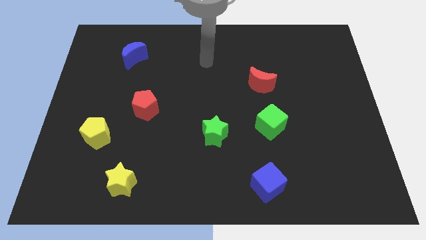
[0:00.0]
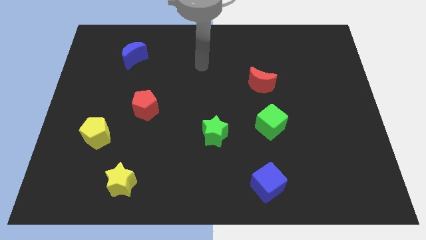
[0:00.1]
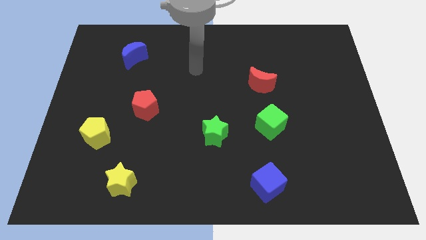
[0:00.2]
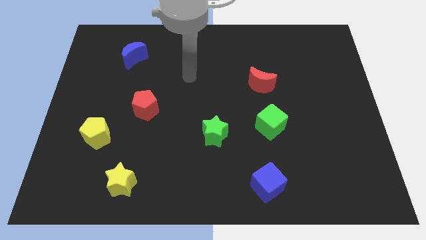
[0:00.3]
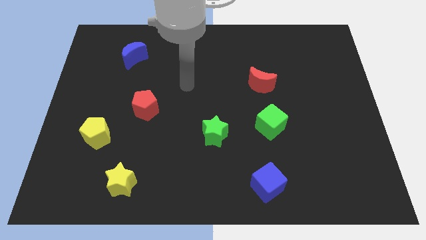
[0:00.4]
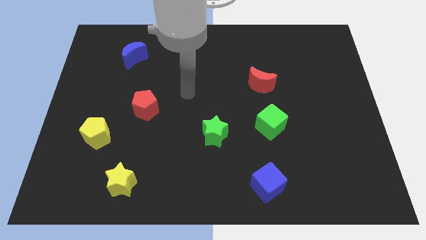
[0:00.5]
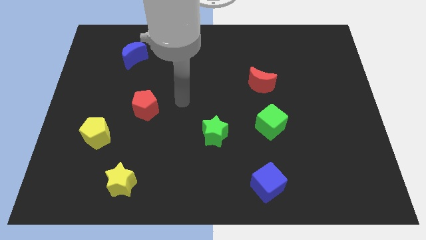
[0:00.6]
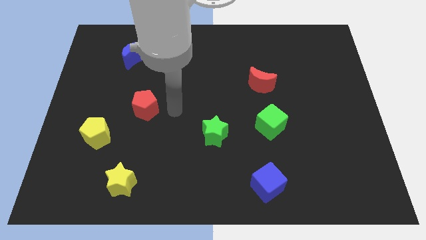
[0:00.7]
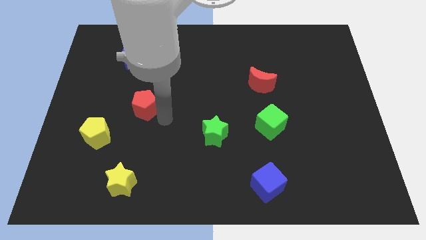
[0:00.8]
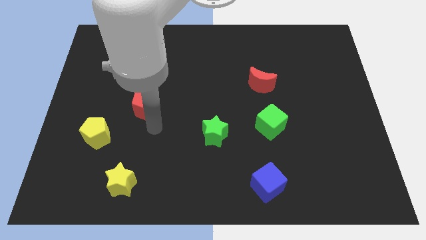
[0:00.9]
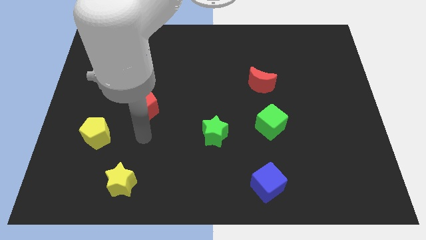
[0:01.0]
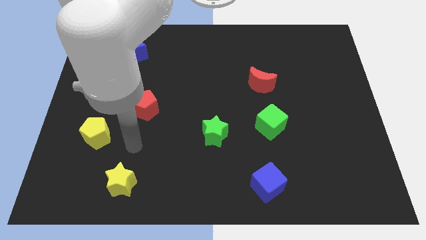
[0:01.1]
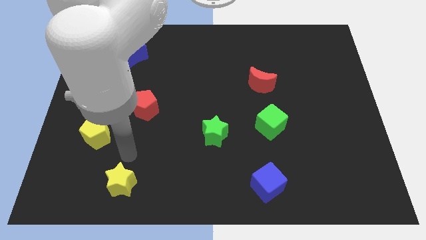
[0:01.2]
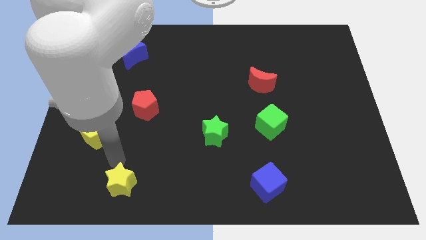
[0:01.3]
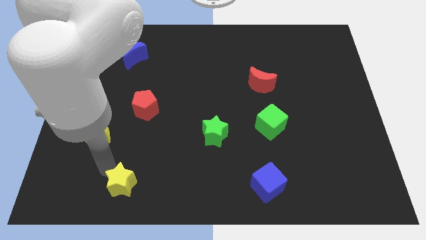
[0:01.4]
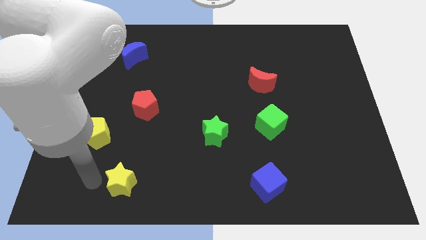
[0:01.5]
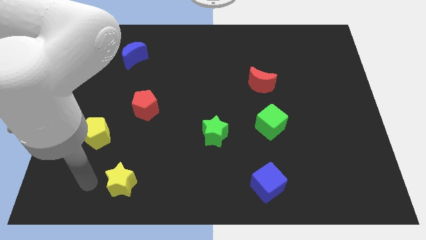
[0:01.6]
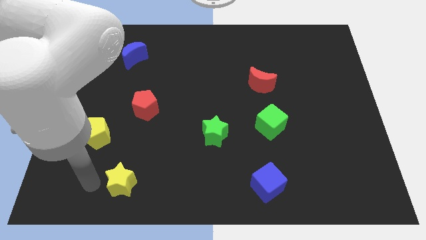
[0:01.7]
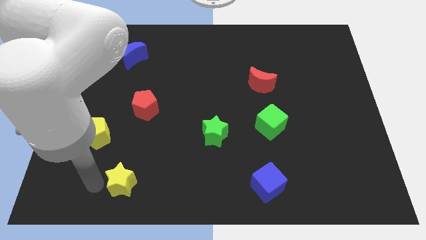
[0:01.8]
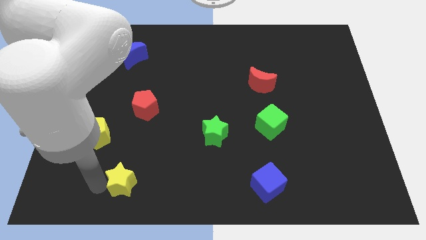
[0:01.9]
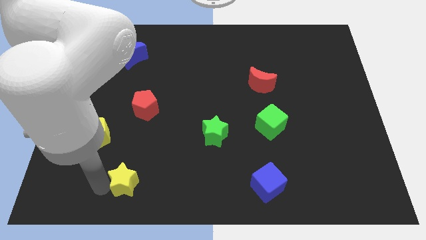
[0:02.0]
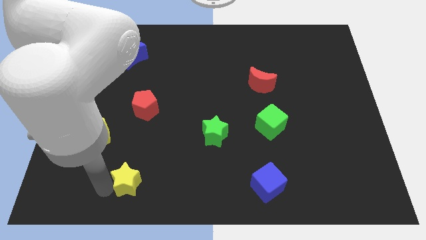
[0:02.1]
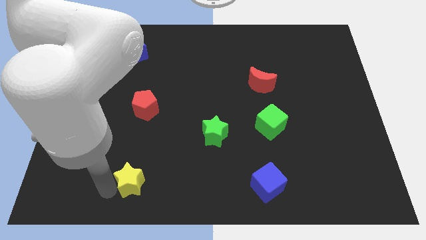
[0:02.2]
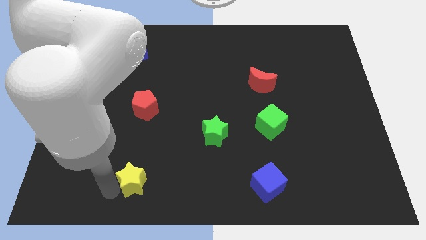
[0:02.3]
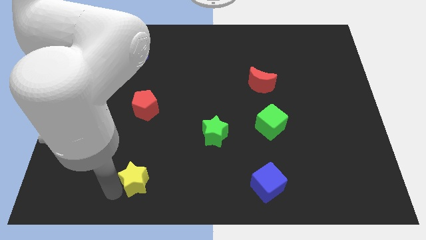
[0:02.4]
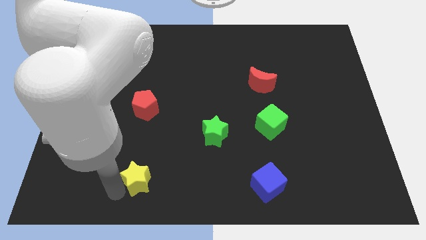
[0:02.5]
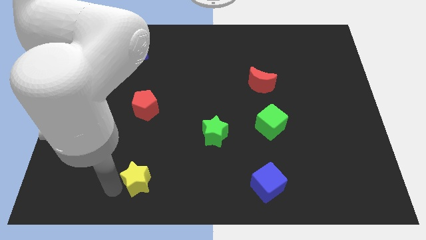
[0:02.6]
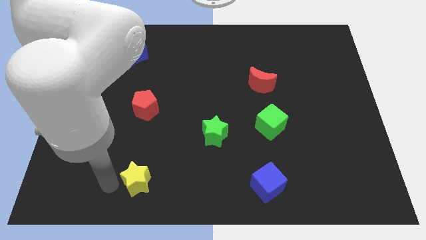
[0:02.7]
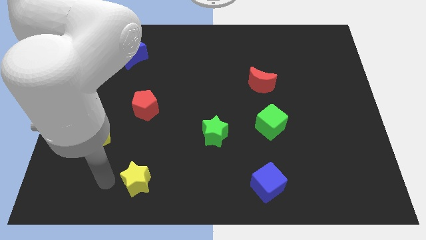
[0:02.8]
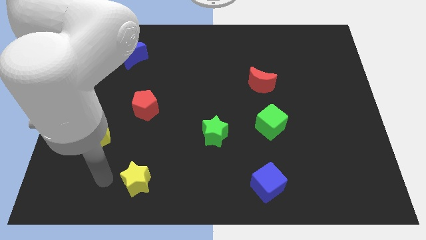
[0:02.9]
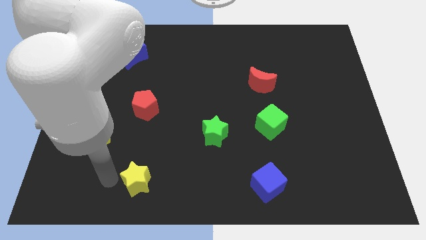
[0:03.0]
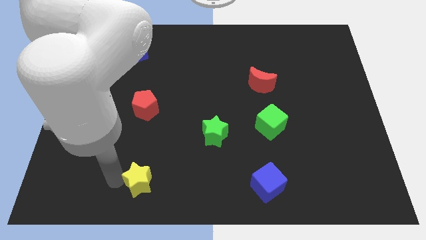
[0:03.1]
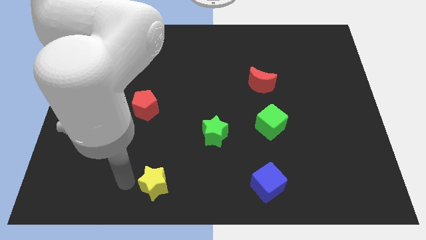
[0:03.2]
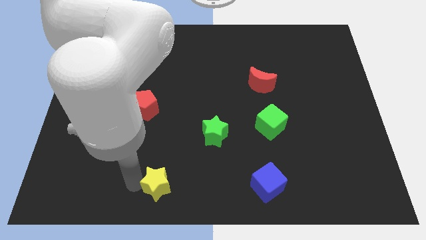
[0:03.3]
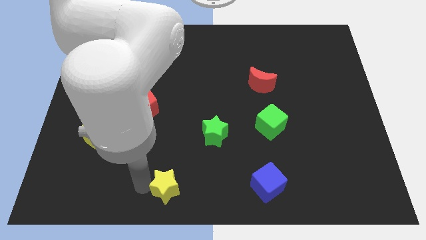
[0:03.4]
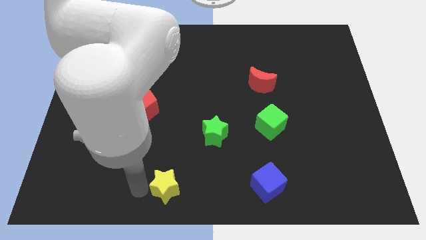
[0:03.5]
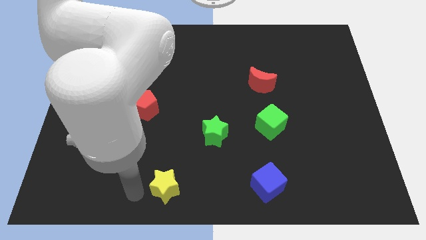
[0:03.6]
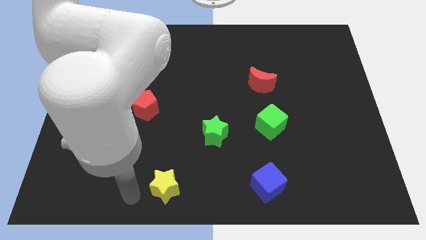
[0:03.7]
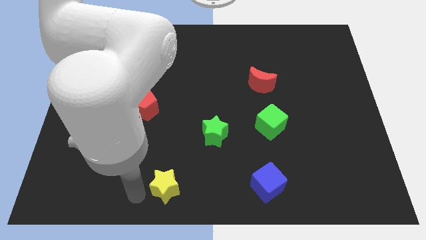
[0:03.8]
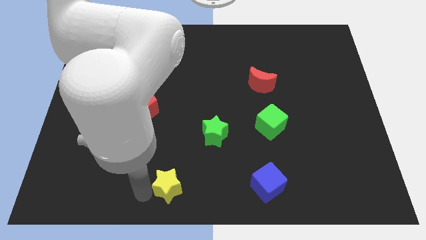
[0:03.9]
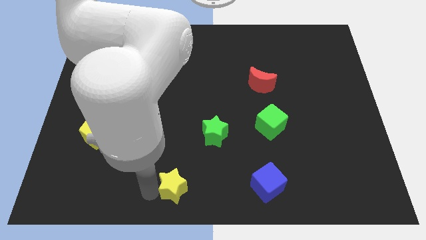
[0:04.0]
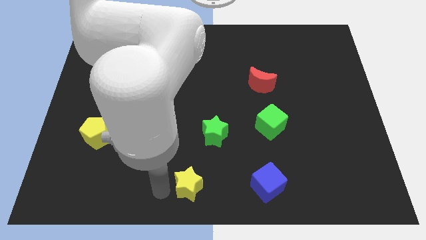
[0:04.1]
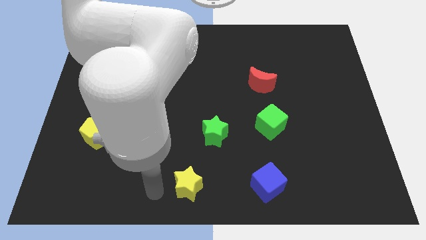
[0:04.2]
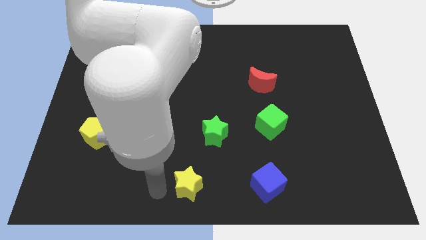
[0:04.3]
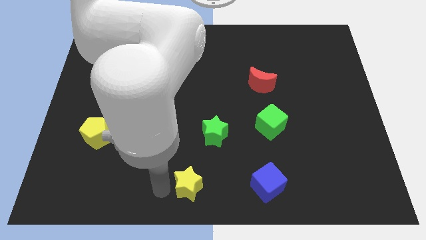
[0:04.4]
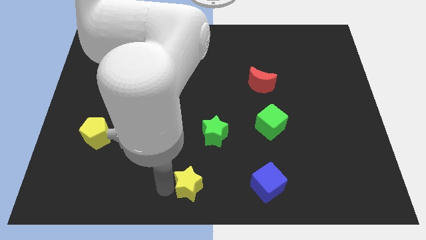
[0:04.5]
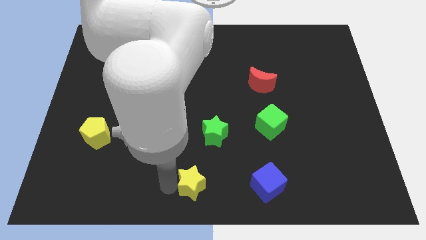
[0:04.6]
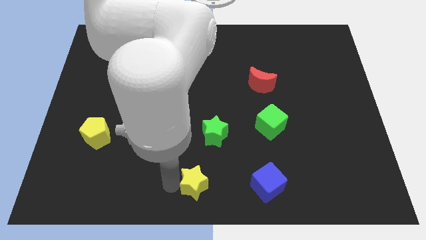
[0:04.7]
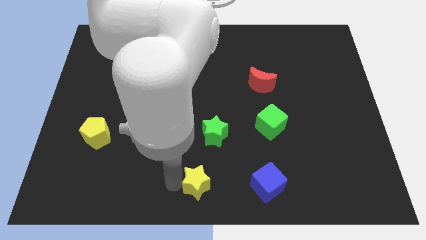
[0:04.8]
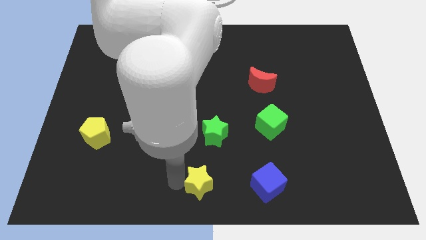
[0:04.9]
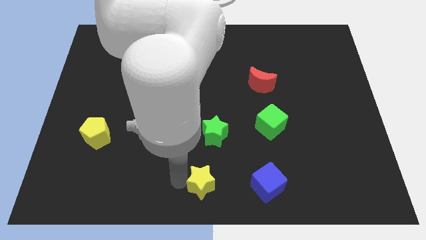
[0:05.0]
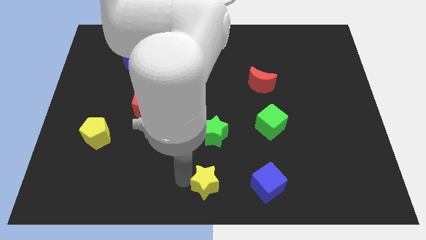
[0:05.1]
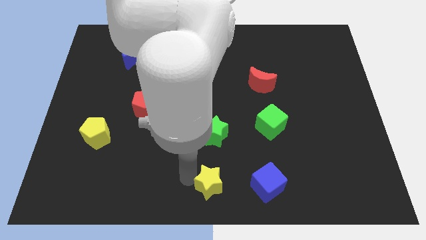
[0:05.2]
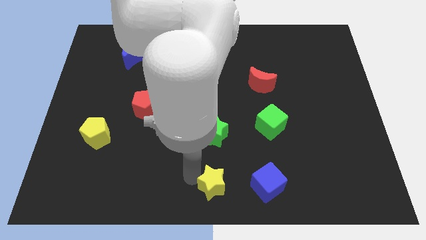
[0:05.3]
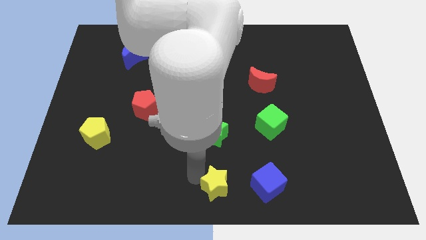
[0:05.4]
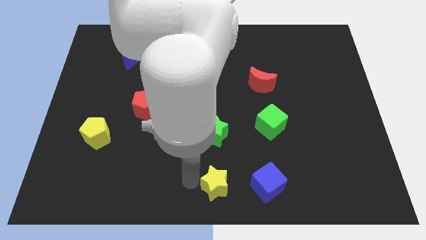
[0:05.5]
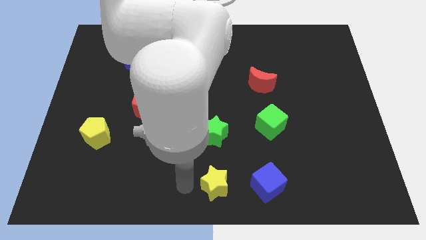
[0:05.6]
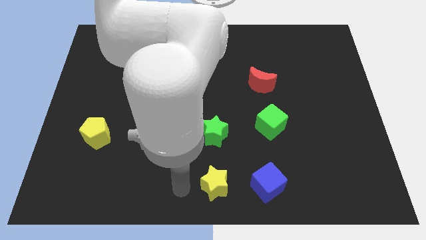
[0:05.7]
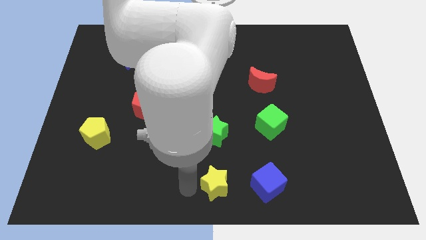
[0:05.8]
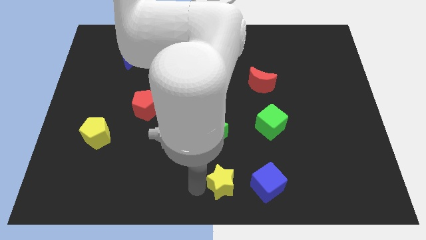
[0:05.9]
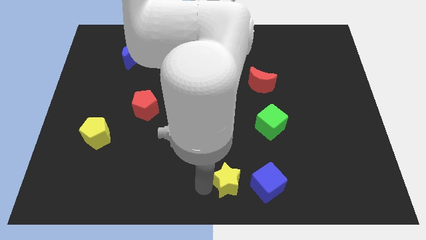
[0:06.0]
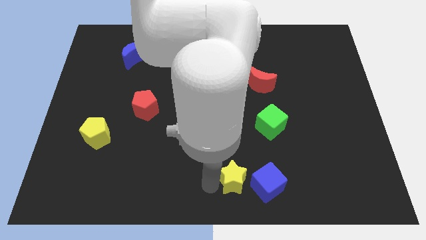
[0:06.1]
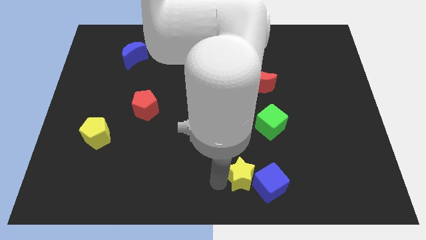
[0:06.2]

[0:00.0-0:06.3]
move the yellow star towards the blue cube
